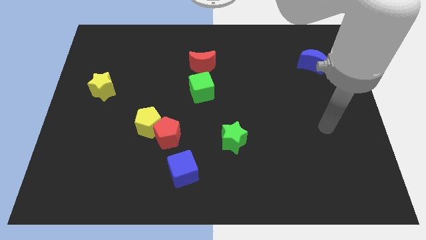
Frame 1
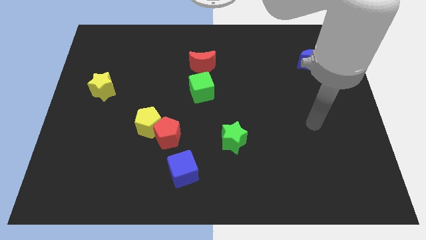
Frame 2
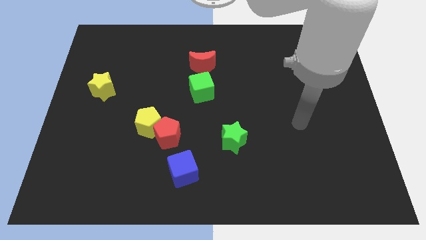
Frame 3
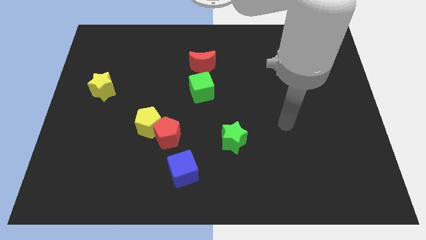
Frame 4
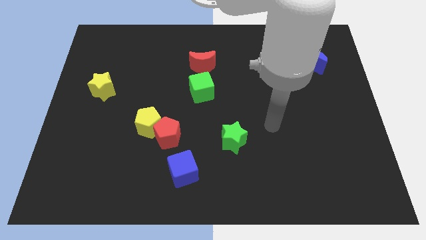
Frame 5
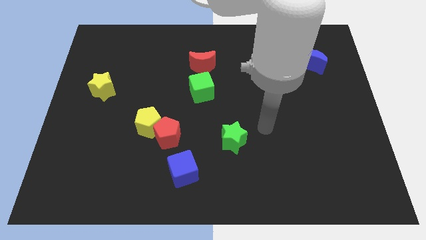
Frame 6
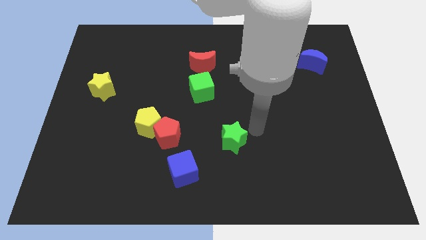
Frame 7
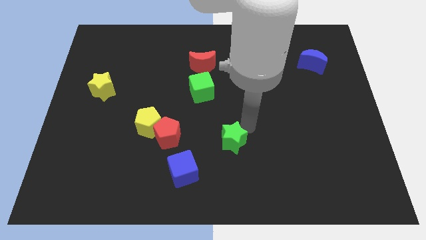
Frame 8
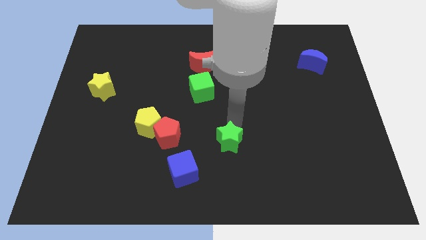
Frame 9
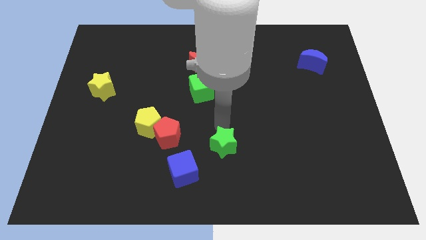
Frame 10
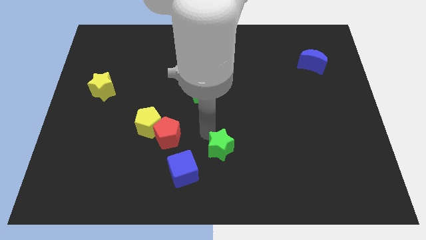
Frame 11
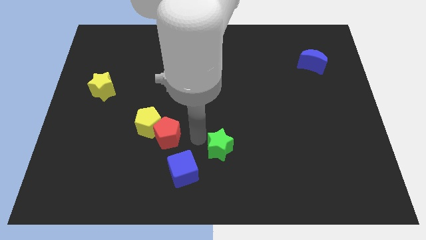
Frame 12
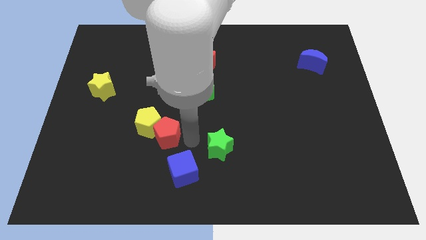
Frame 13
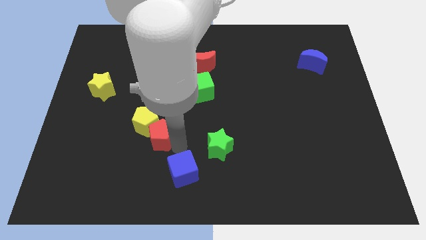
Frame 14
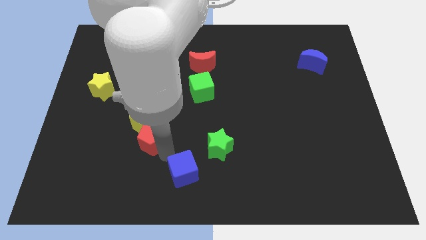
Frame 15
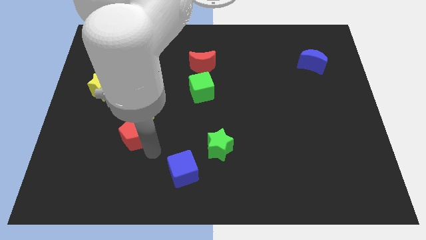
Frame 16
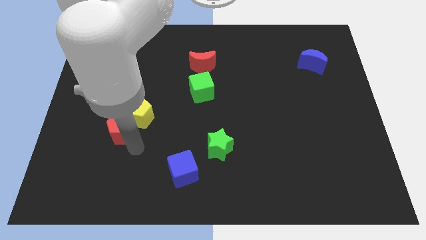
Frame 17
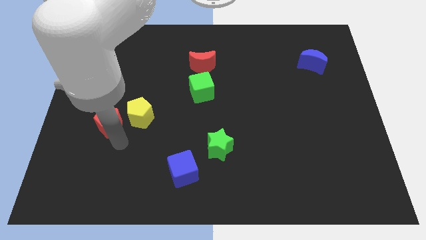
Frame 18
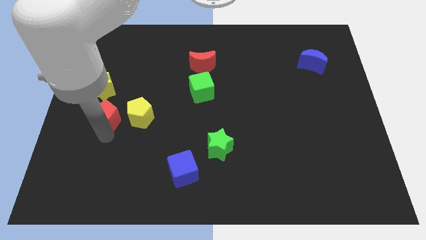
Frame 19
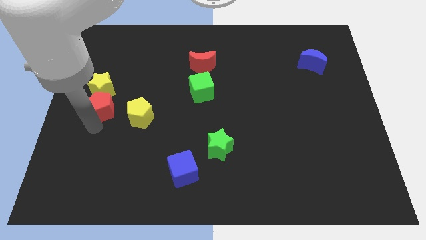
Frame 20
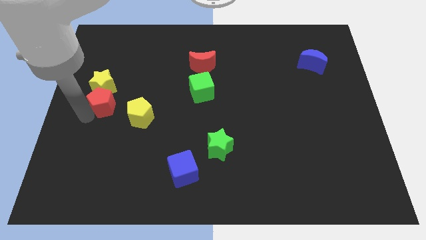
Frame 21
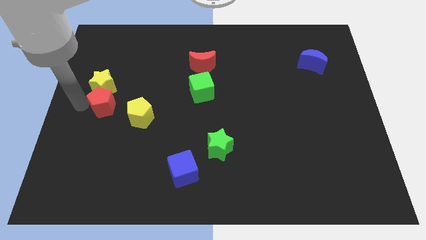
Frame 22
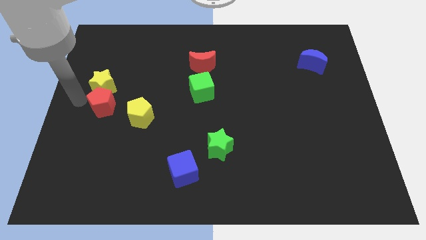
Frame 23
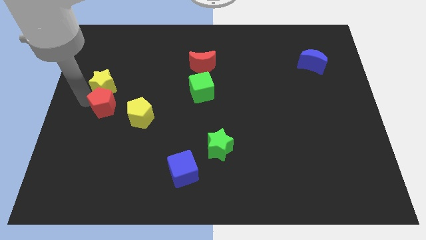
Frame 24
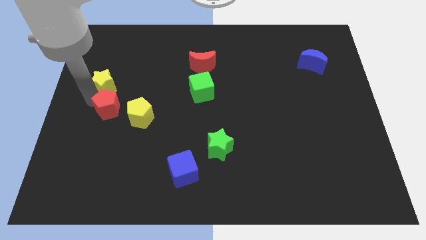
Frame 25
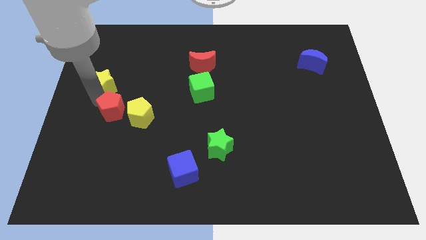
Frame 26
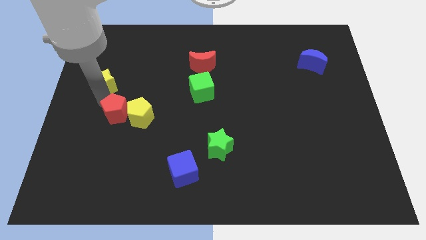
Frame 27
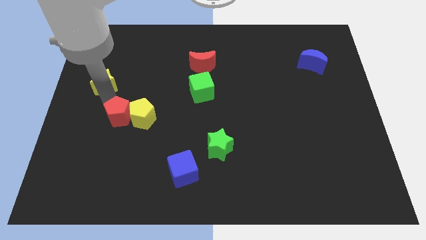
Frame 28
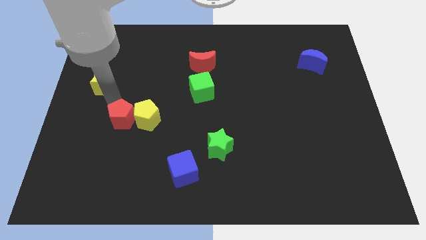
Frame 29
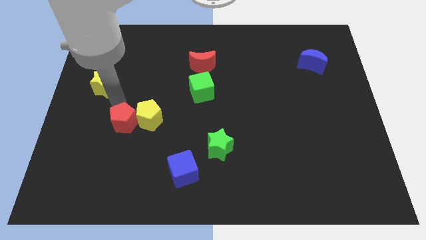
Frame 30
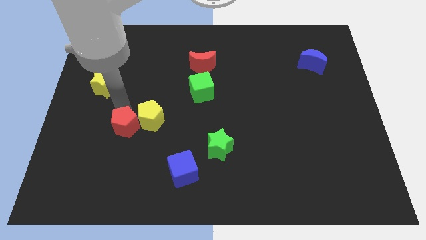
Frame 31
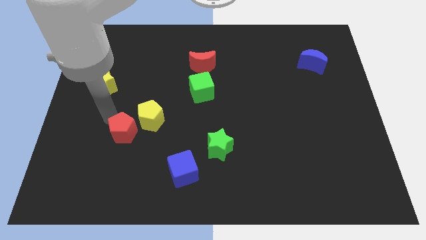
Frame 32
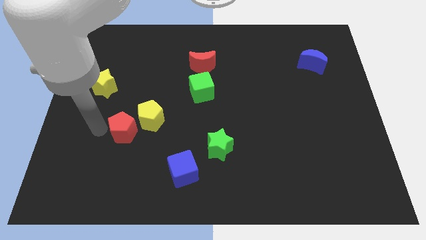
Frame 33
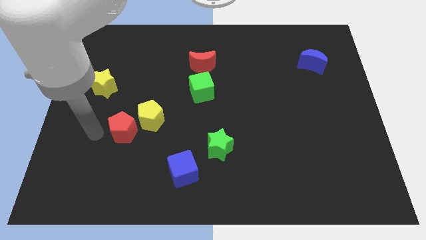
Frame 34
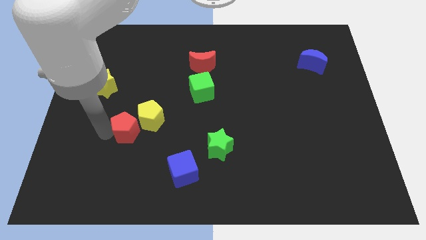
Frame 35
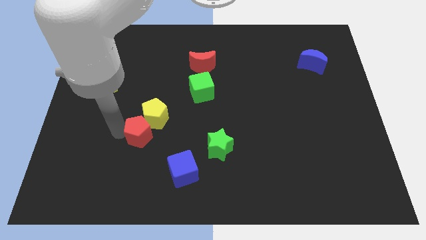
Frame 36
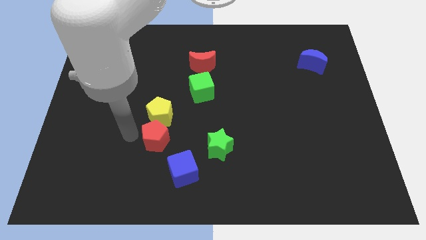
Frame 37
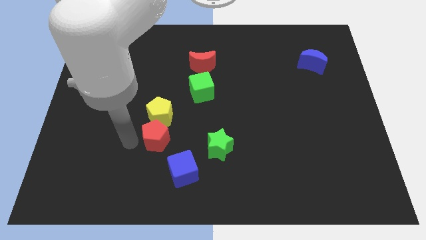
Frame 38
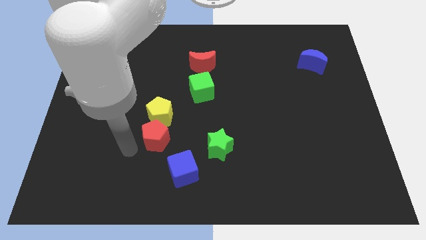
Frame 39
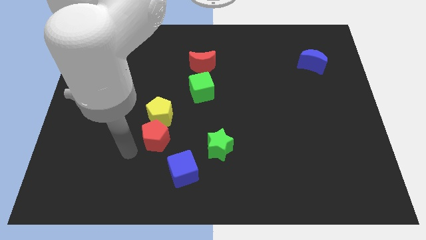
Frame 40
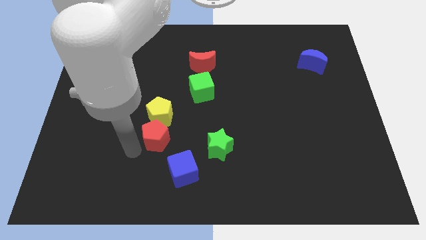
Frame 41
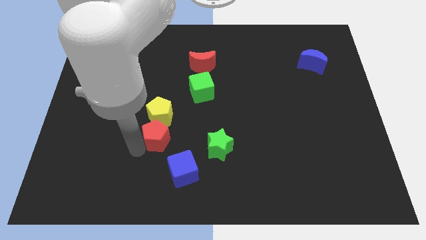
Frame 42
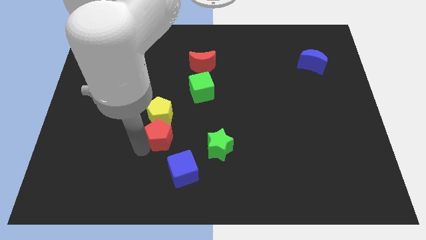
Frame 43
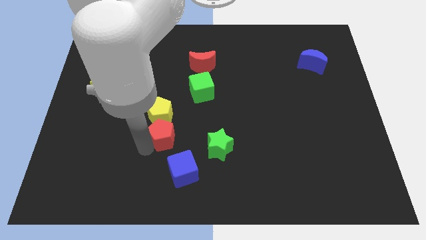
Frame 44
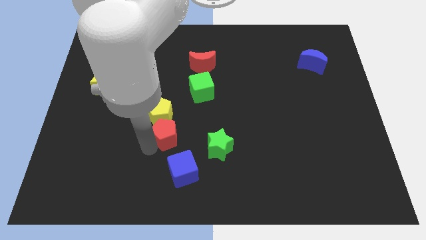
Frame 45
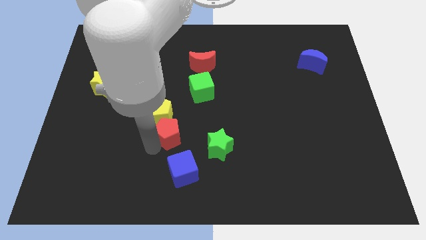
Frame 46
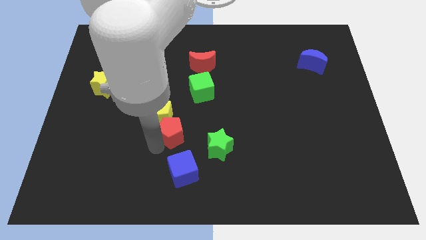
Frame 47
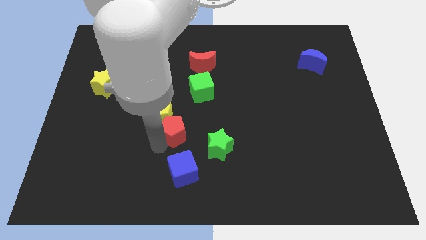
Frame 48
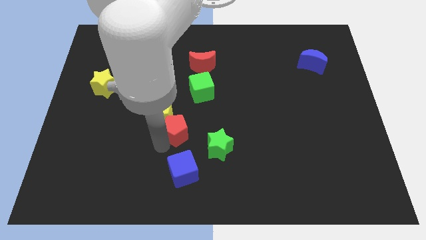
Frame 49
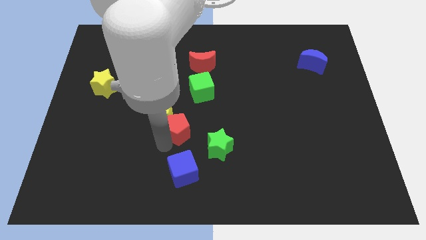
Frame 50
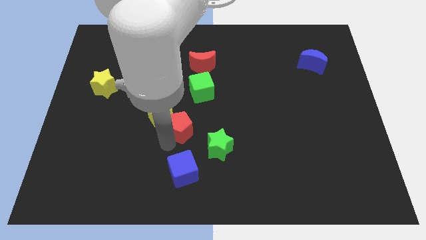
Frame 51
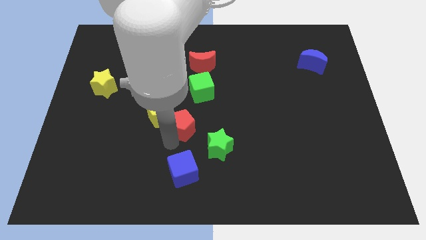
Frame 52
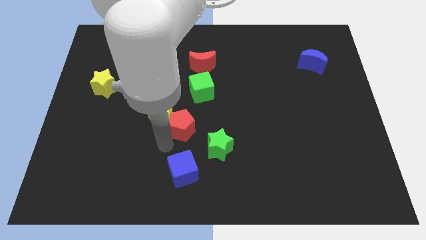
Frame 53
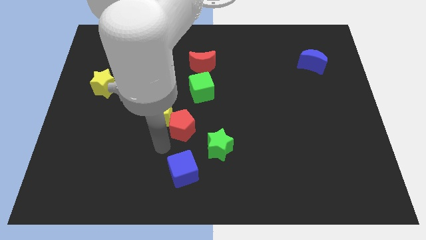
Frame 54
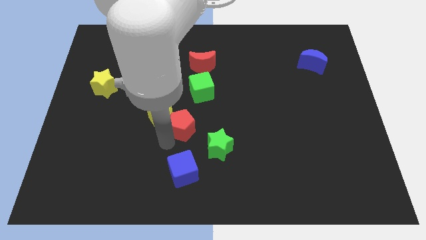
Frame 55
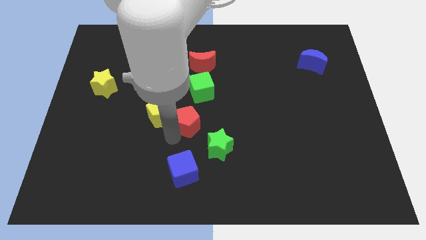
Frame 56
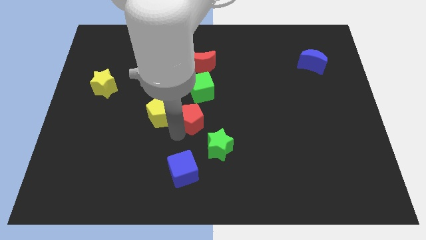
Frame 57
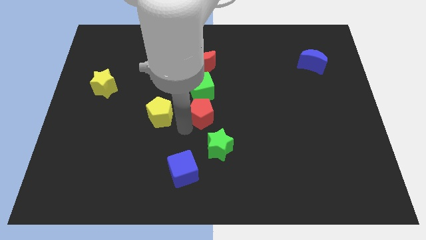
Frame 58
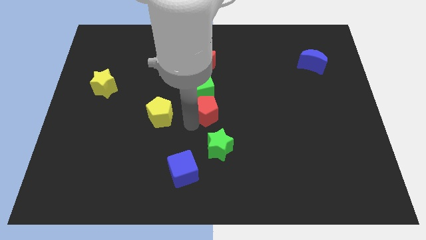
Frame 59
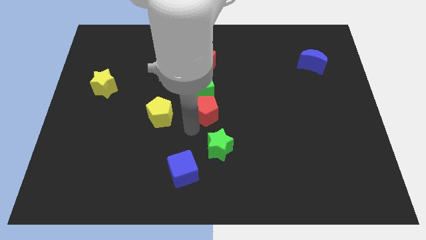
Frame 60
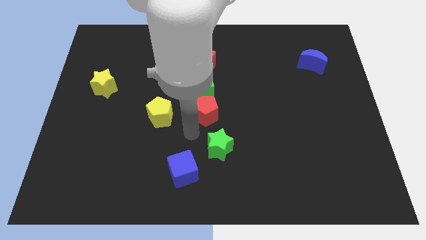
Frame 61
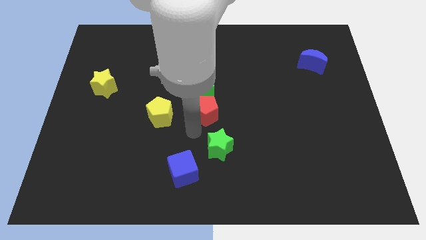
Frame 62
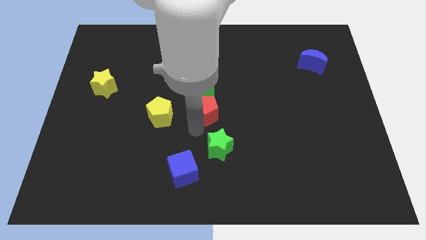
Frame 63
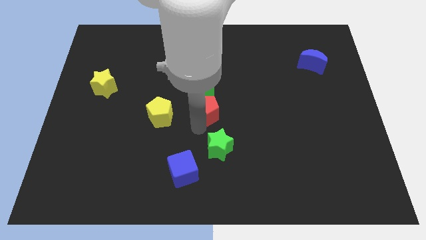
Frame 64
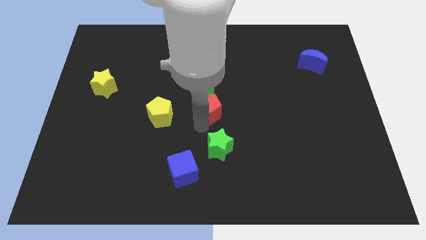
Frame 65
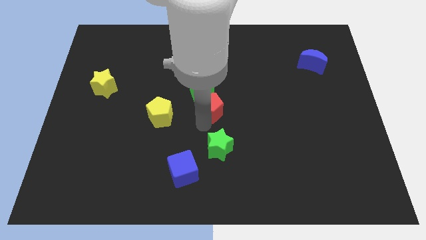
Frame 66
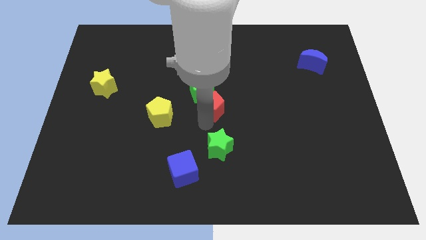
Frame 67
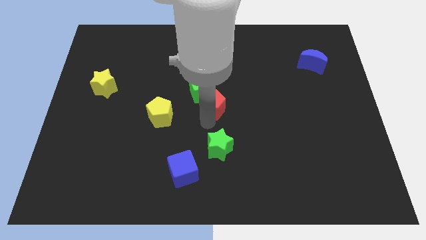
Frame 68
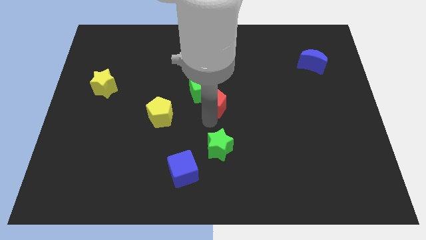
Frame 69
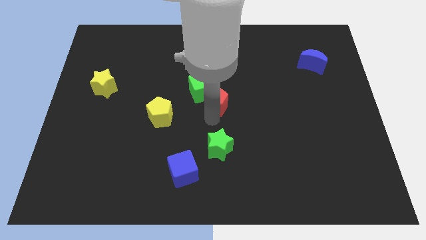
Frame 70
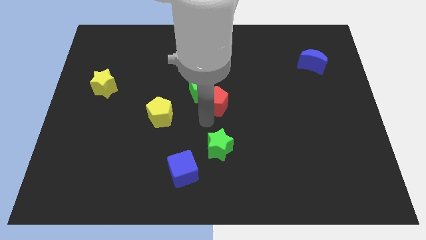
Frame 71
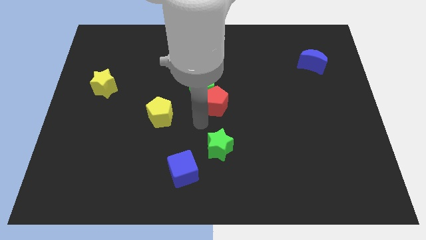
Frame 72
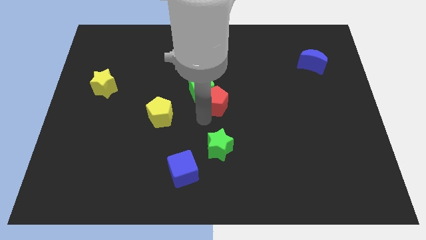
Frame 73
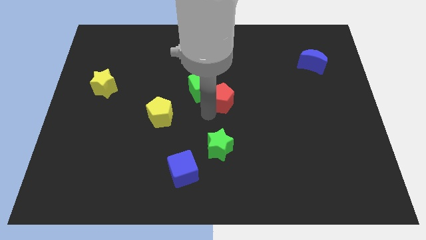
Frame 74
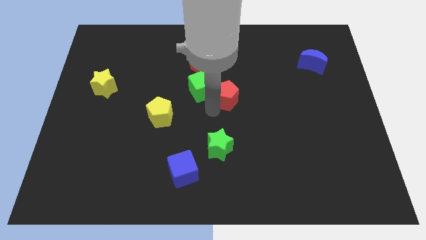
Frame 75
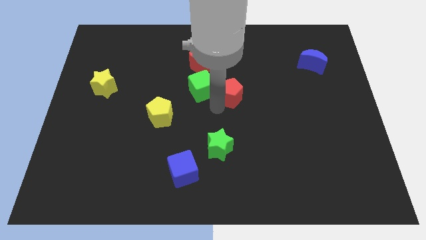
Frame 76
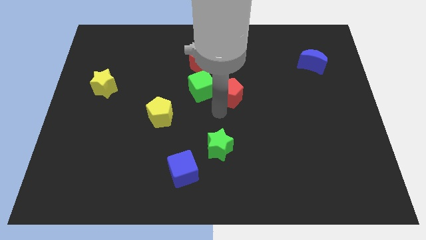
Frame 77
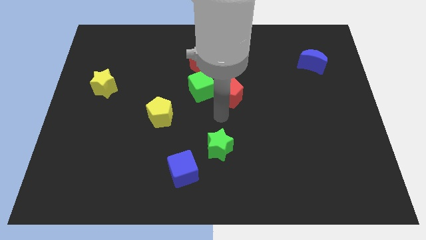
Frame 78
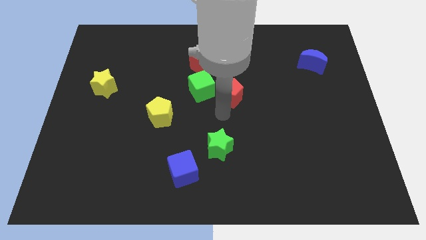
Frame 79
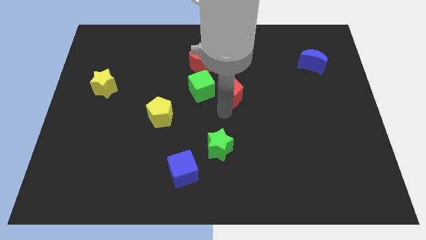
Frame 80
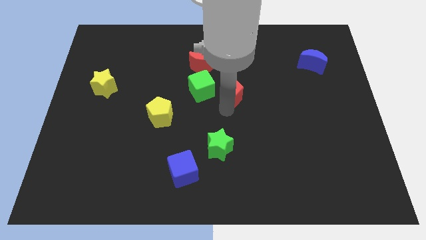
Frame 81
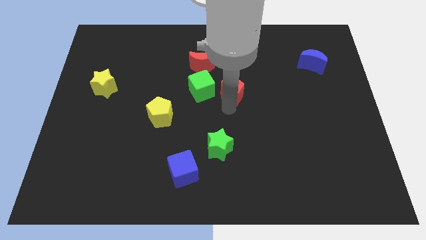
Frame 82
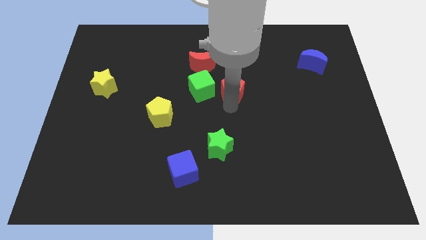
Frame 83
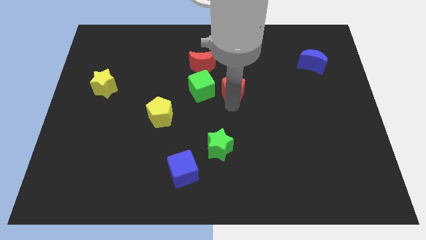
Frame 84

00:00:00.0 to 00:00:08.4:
push the red pentagon upwards and right
